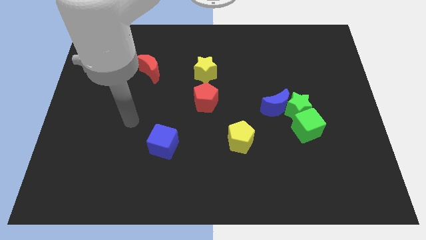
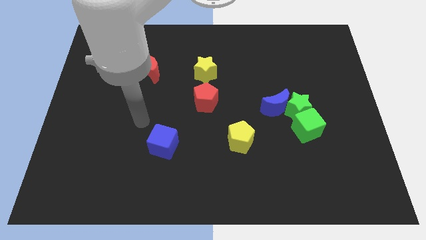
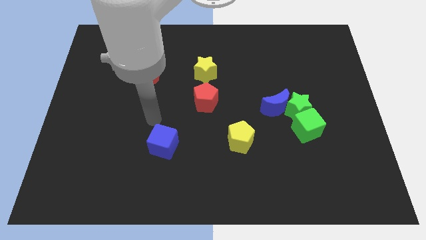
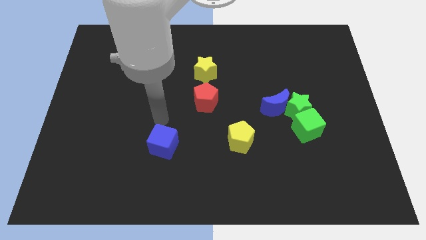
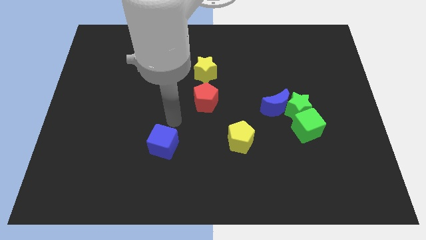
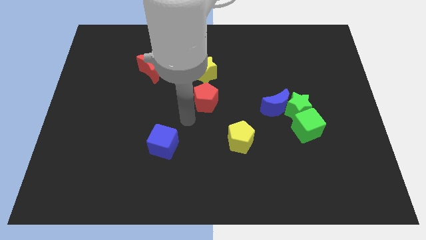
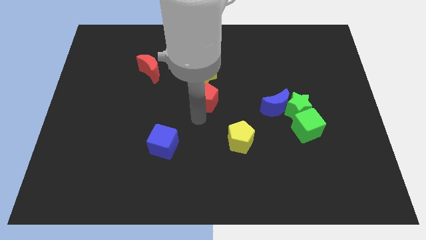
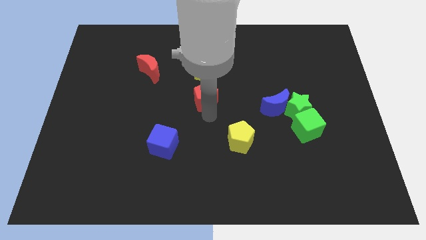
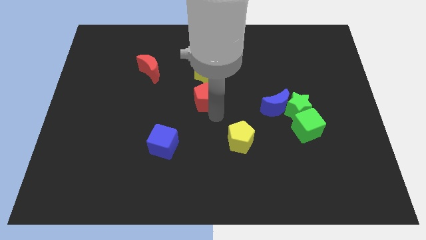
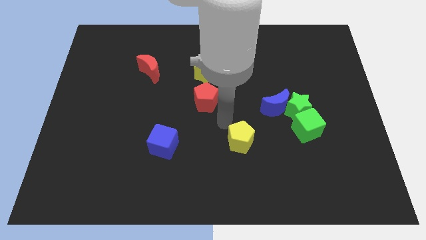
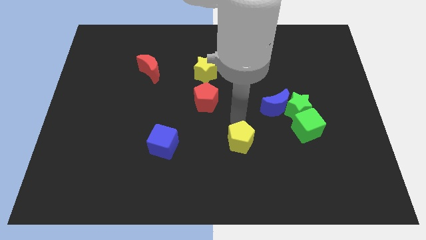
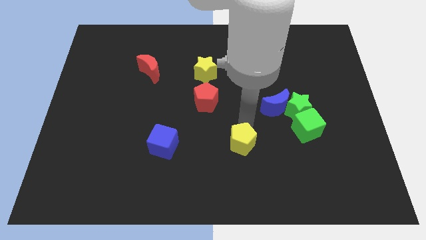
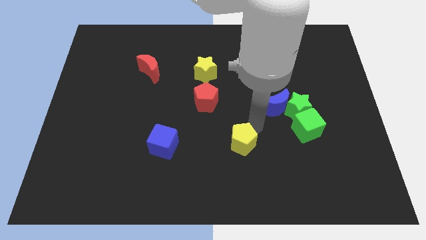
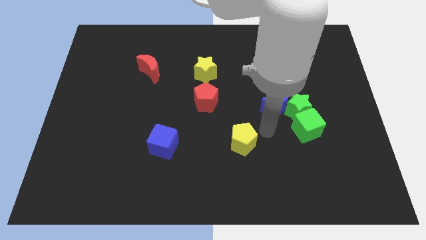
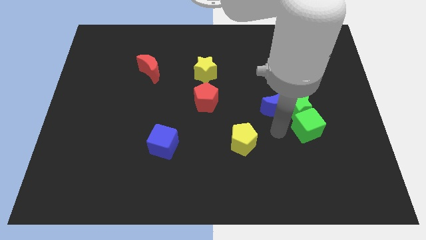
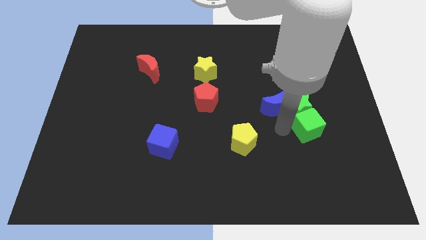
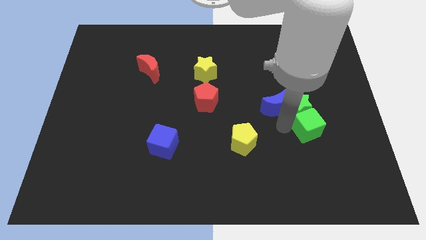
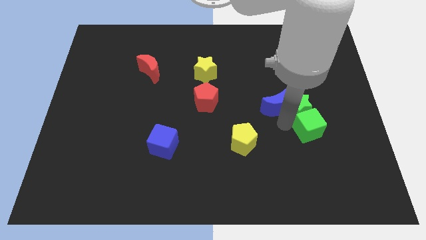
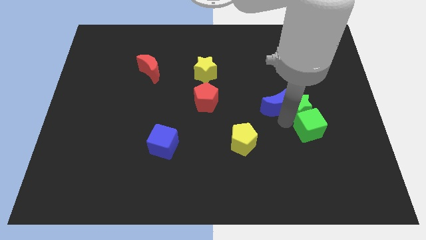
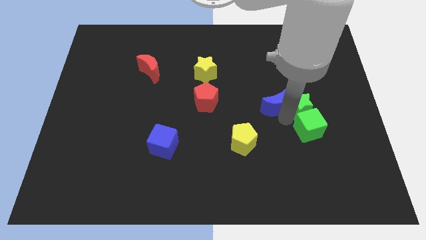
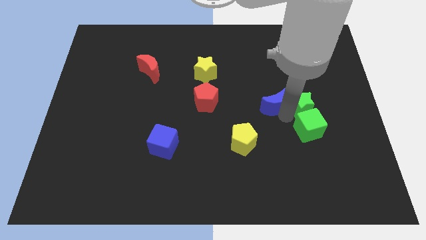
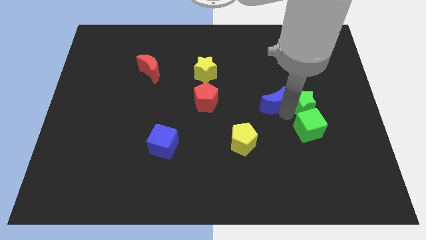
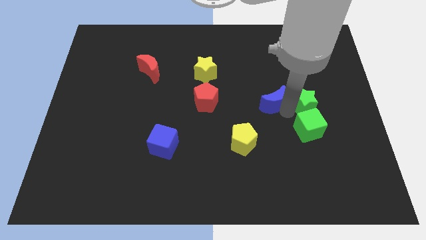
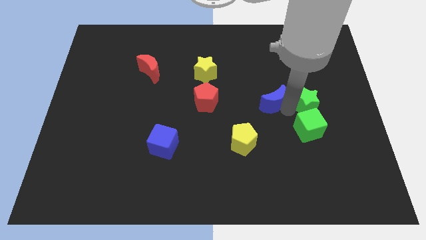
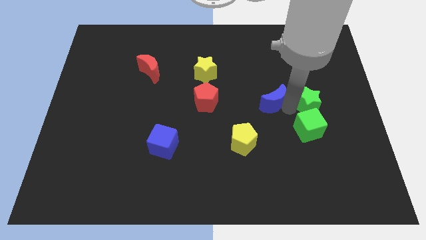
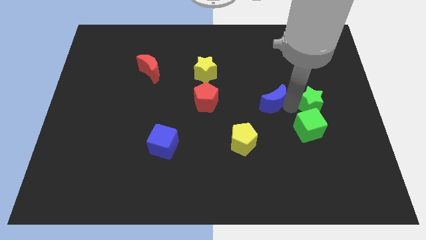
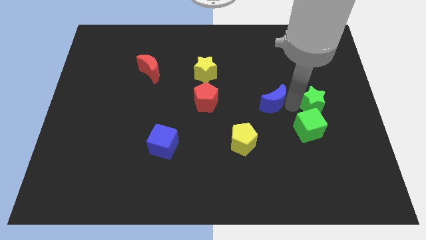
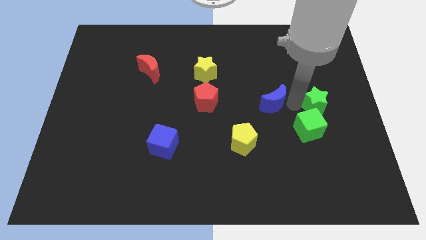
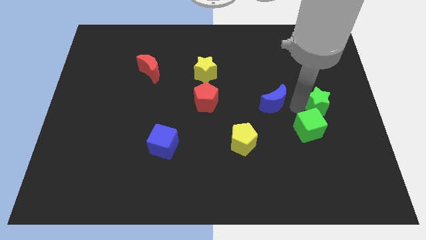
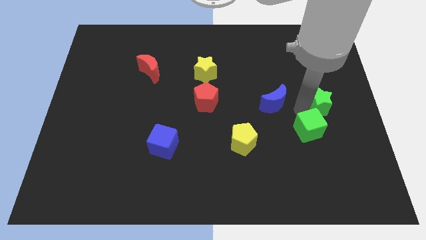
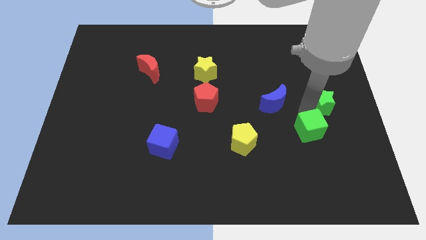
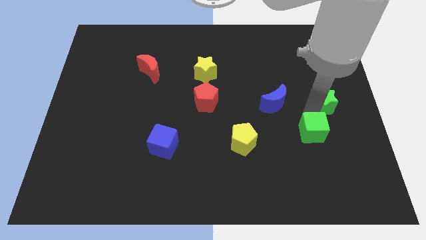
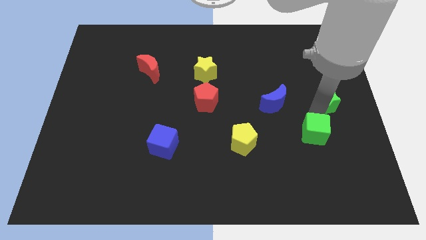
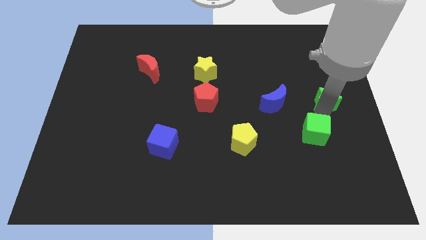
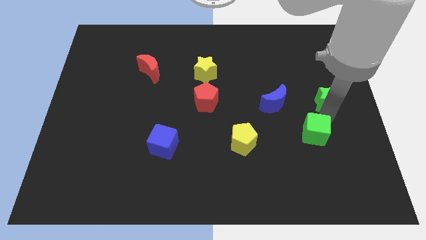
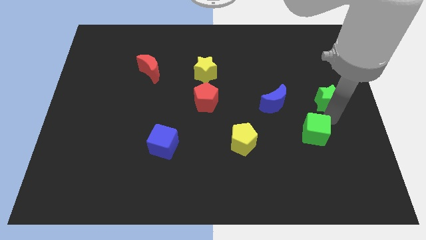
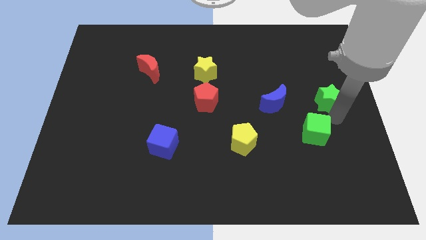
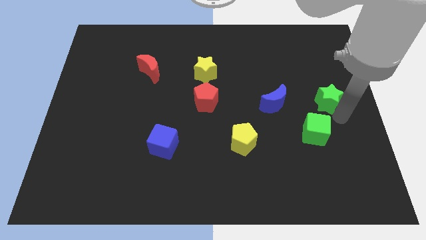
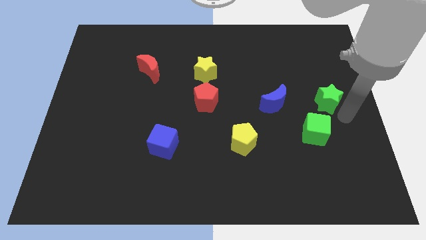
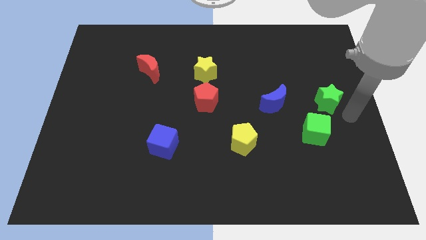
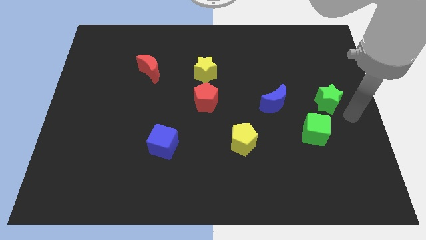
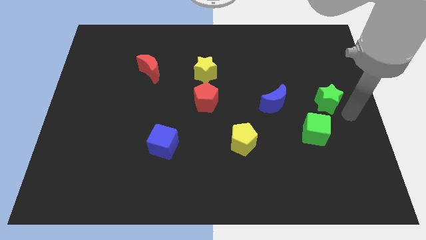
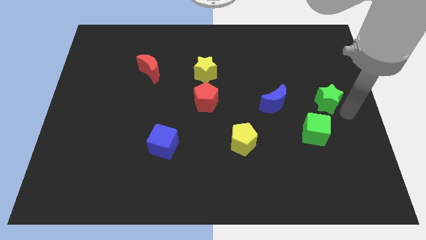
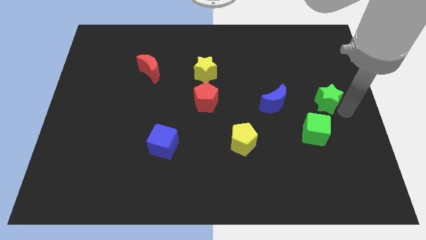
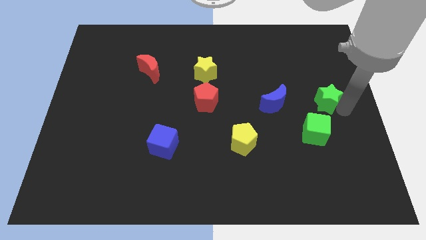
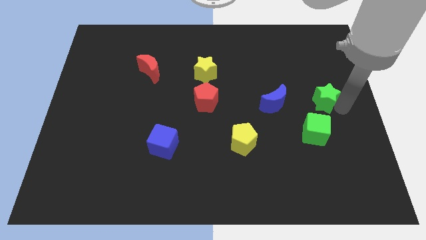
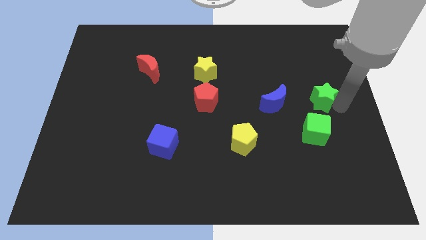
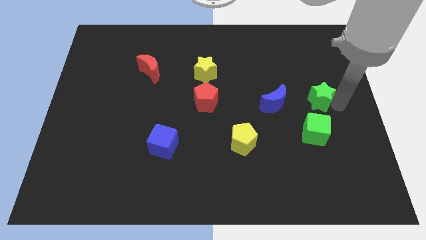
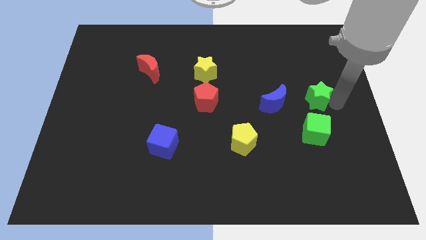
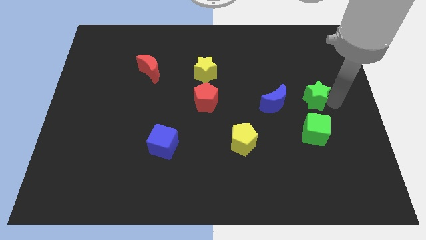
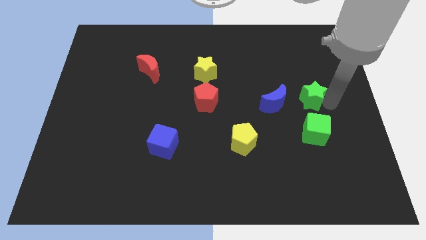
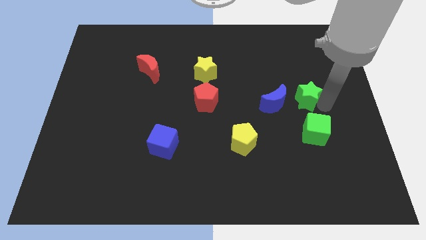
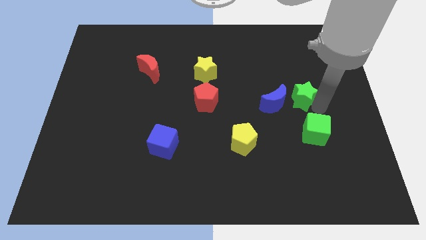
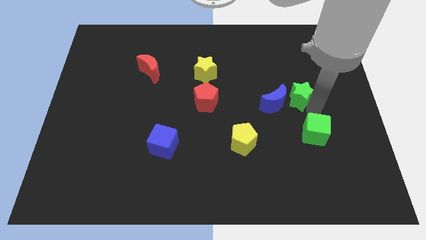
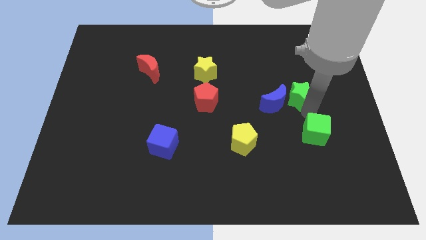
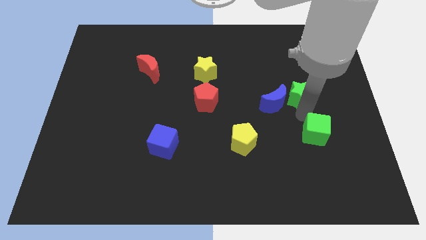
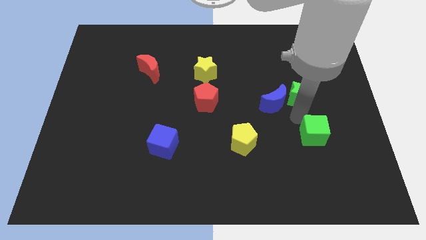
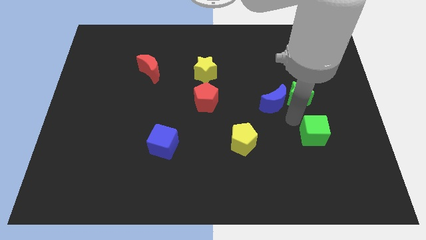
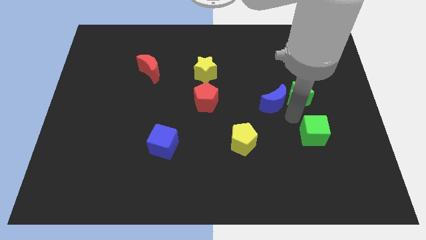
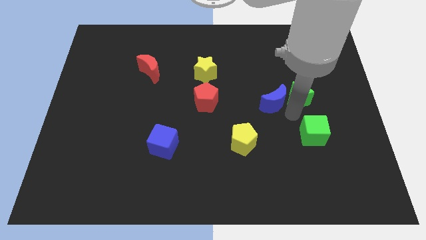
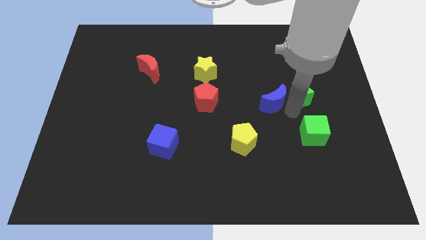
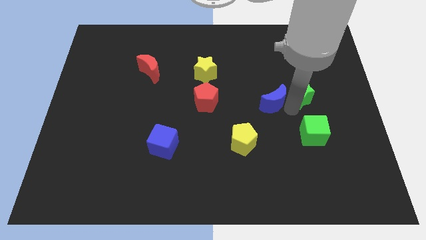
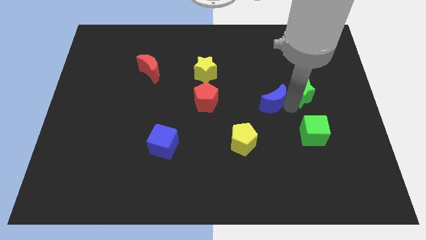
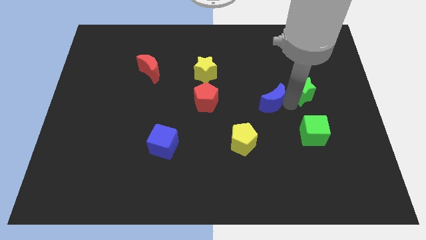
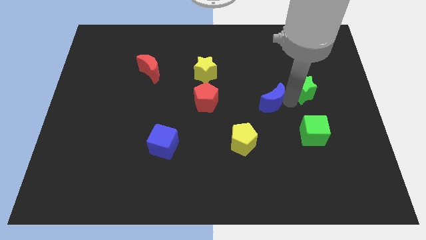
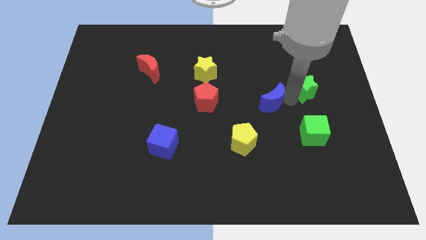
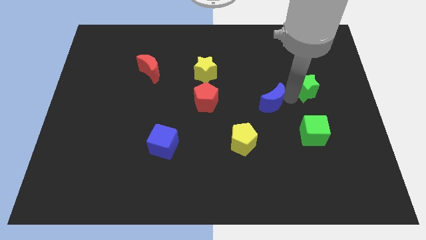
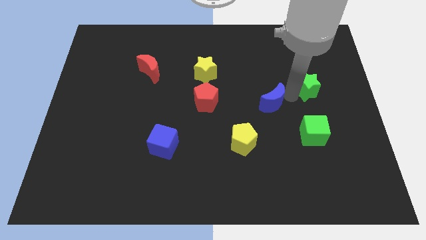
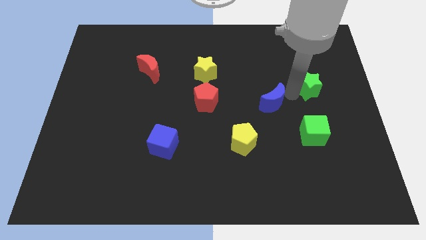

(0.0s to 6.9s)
pull the green star apart from the blue moon and green cube

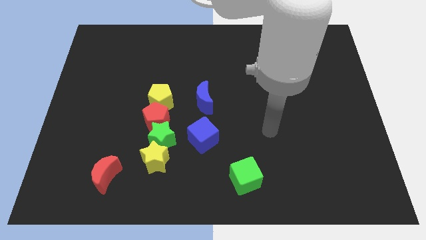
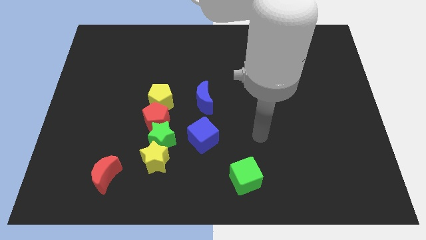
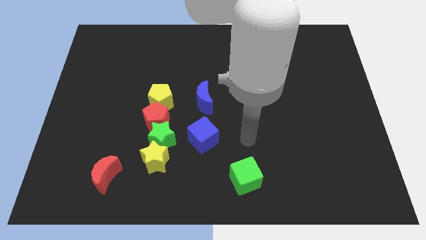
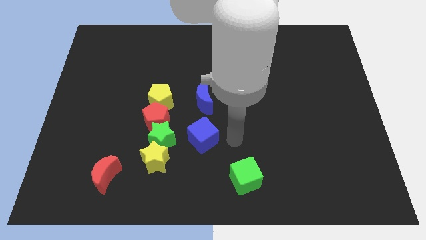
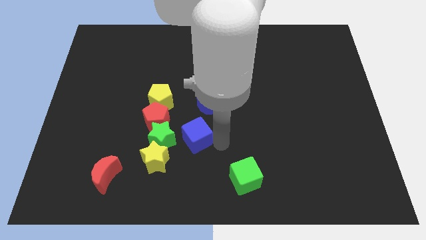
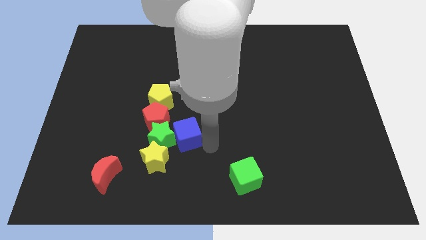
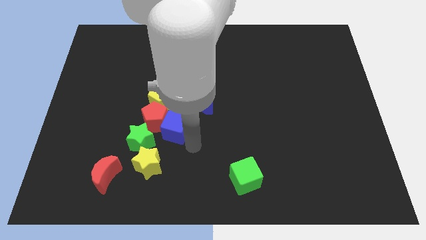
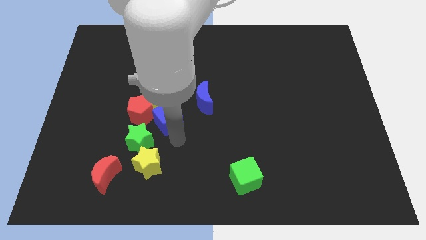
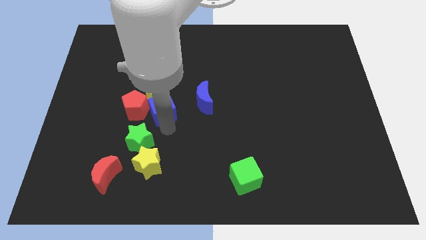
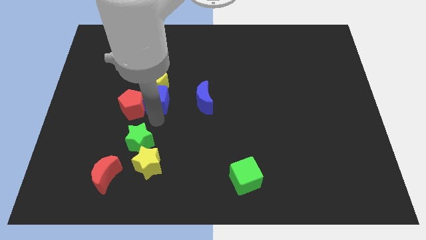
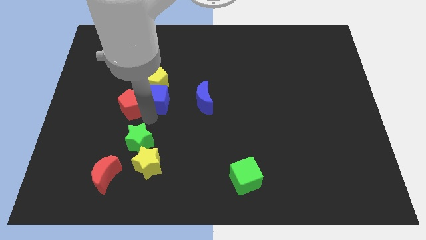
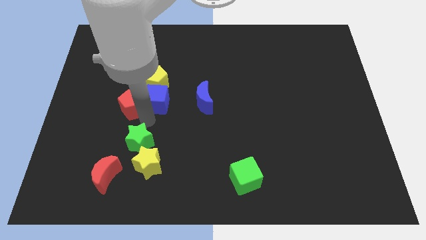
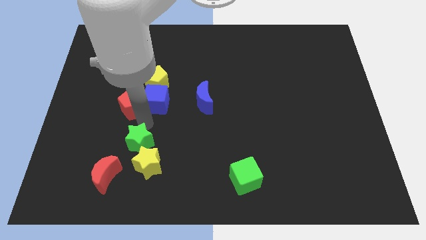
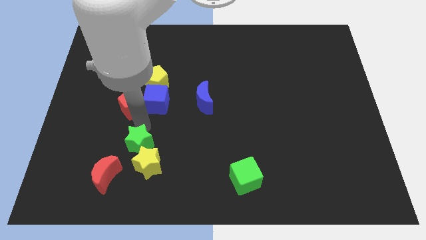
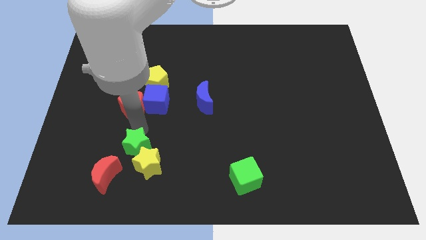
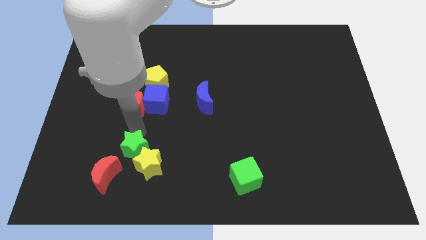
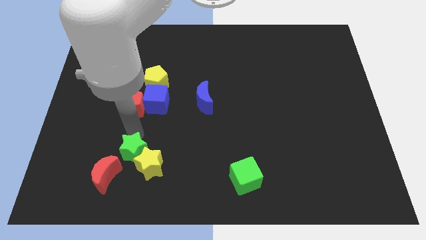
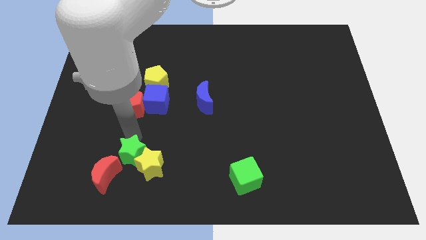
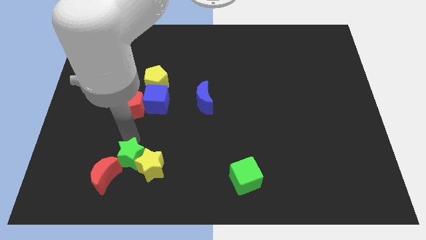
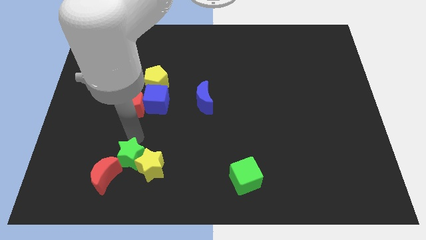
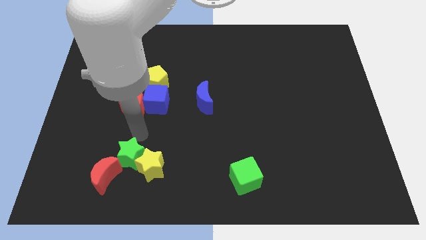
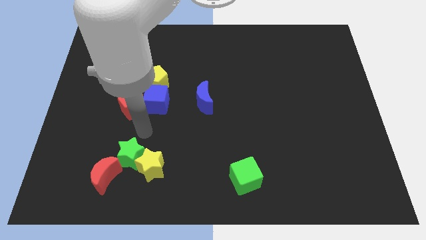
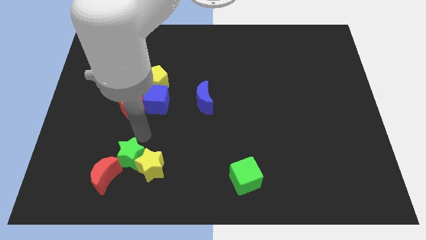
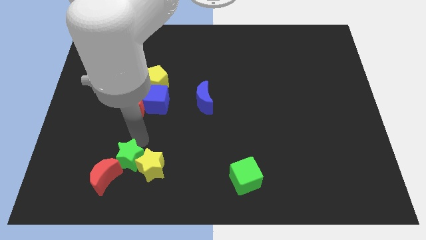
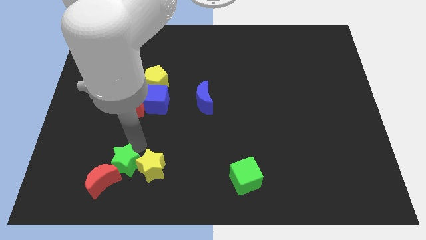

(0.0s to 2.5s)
move the green star away from the group of blocks
